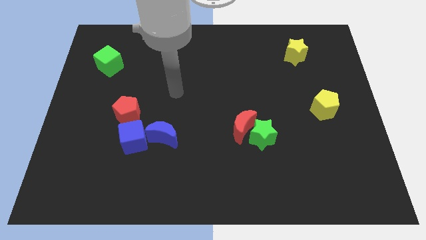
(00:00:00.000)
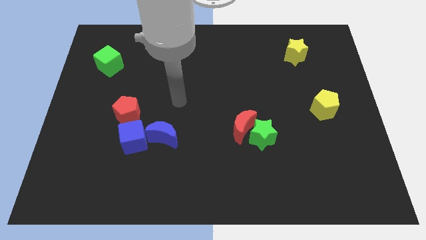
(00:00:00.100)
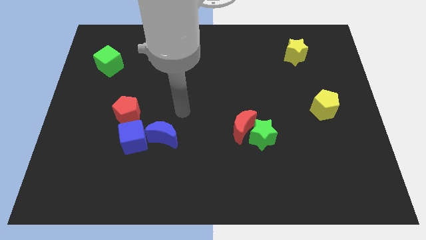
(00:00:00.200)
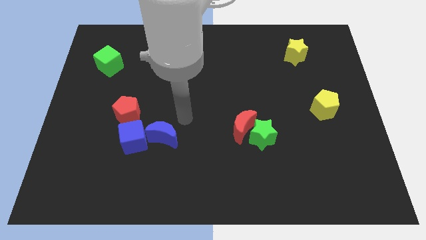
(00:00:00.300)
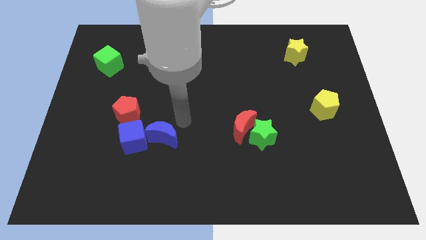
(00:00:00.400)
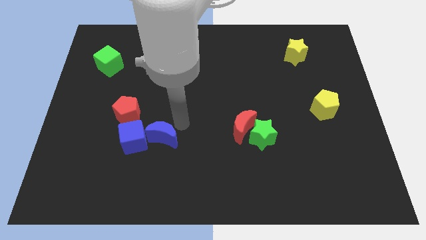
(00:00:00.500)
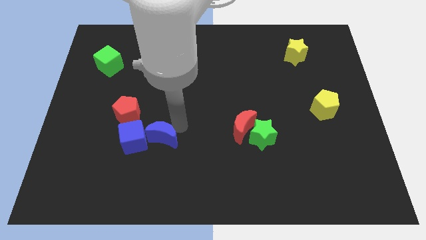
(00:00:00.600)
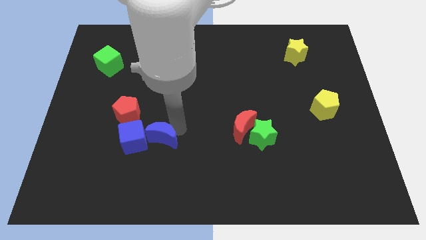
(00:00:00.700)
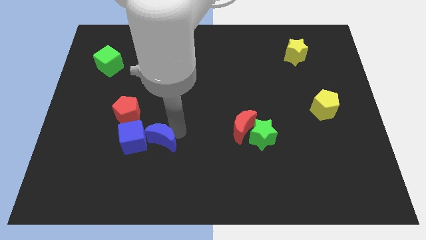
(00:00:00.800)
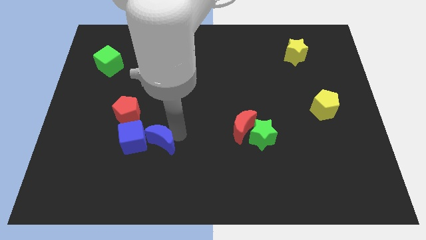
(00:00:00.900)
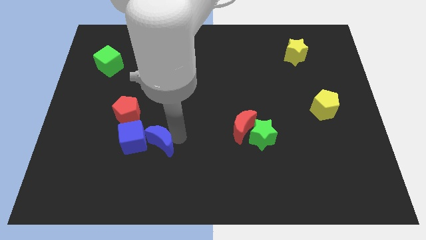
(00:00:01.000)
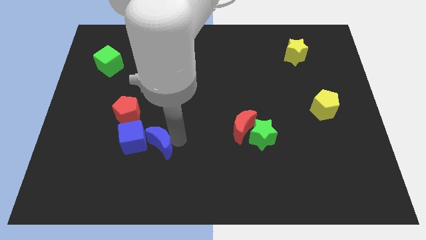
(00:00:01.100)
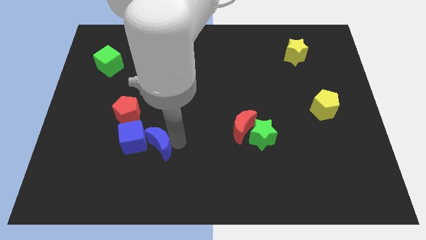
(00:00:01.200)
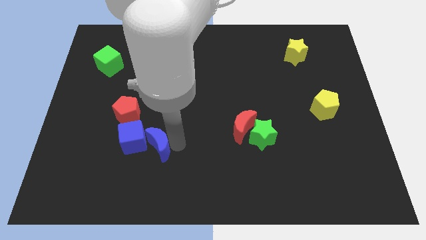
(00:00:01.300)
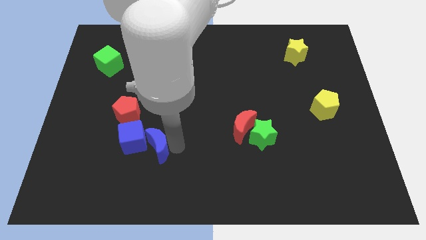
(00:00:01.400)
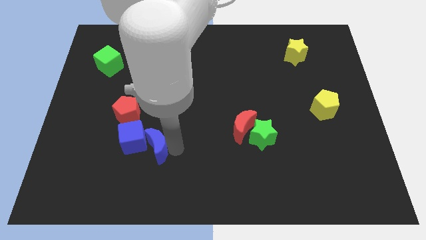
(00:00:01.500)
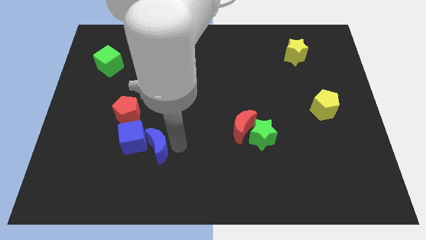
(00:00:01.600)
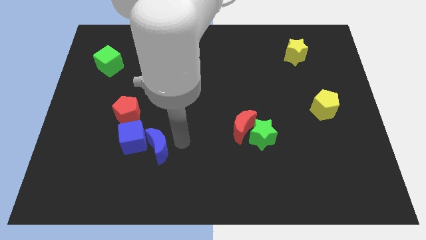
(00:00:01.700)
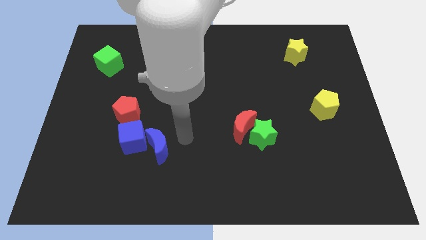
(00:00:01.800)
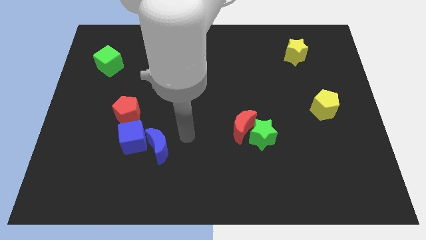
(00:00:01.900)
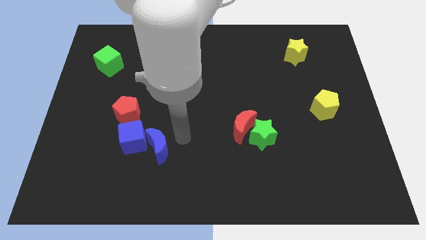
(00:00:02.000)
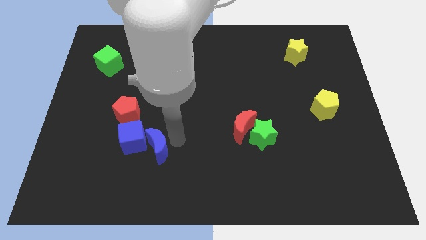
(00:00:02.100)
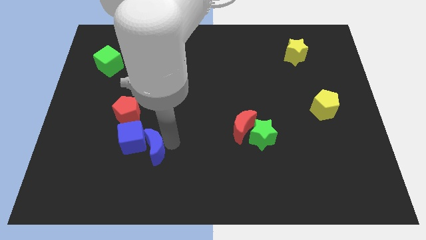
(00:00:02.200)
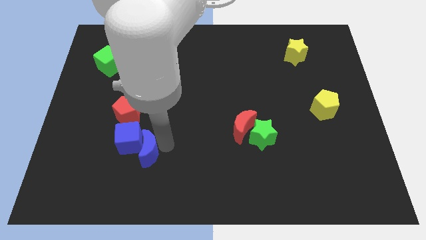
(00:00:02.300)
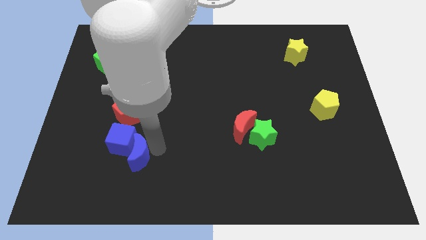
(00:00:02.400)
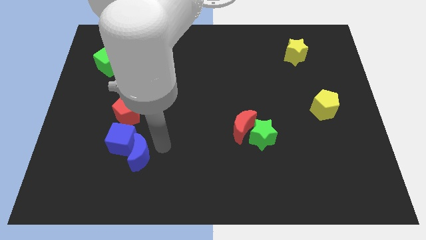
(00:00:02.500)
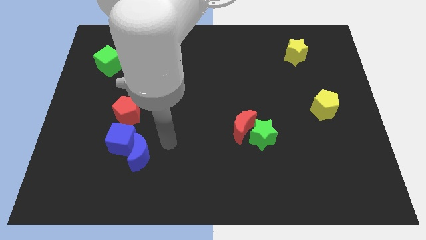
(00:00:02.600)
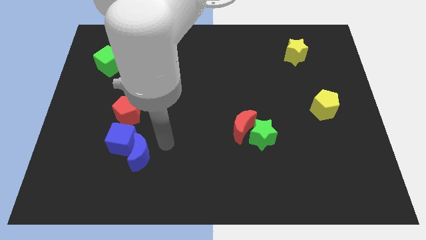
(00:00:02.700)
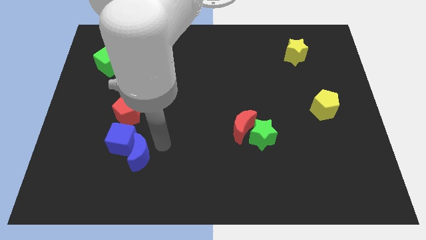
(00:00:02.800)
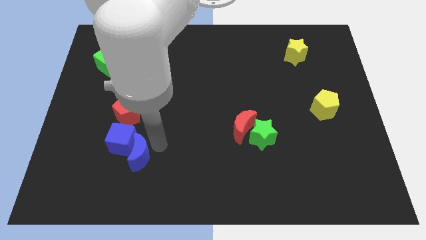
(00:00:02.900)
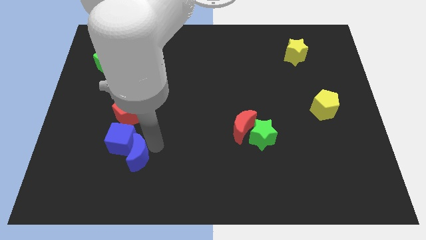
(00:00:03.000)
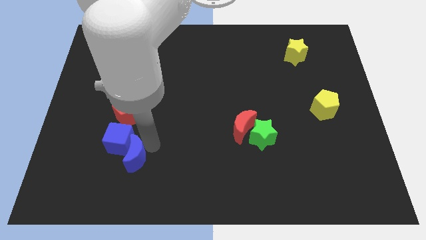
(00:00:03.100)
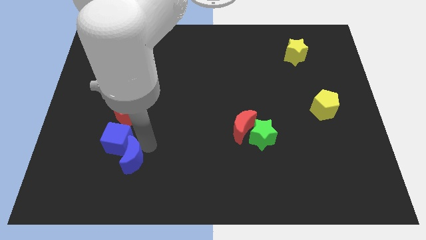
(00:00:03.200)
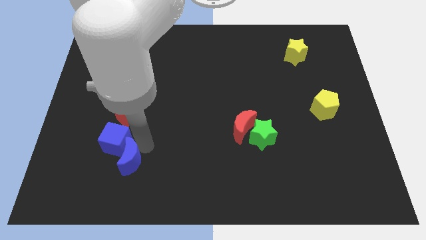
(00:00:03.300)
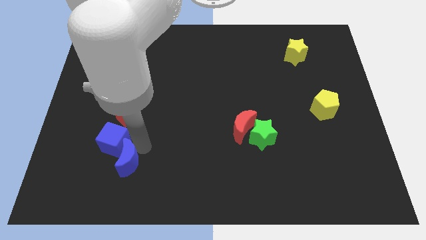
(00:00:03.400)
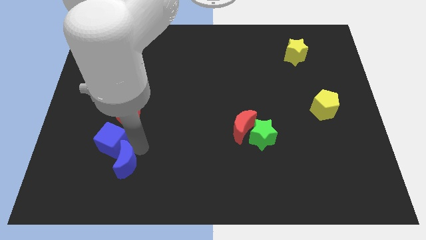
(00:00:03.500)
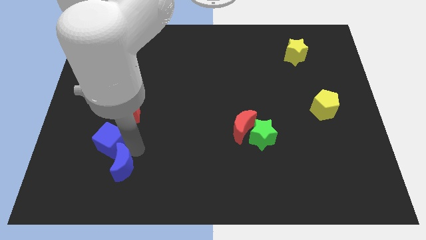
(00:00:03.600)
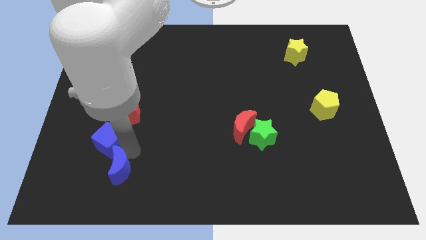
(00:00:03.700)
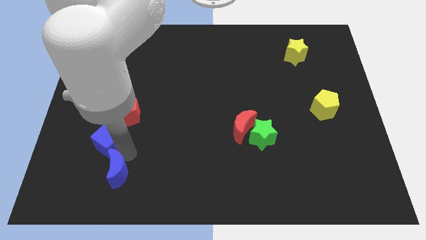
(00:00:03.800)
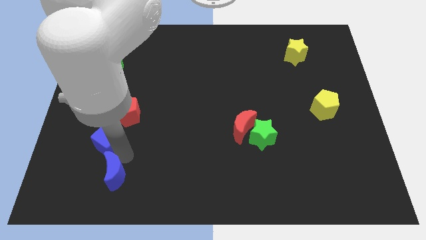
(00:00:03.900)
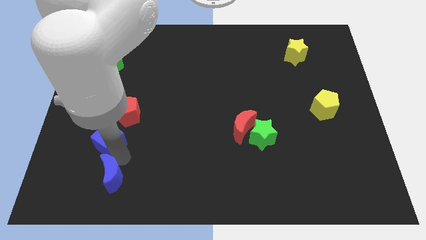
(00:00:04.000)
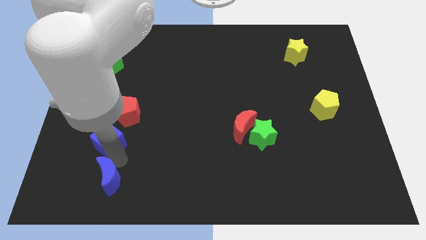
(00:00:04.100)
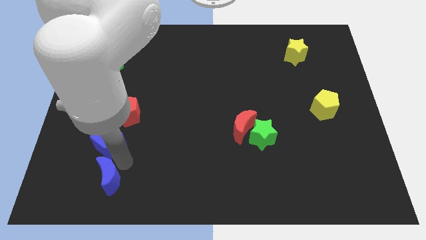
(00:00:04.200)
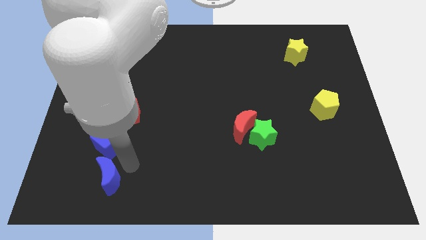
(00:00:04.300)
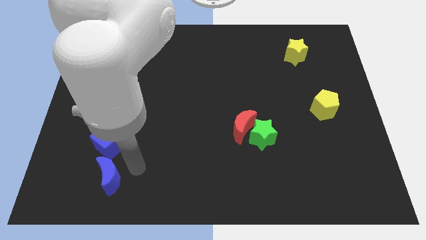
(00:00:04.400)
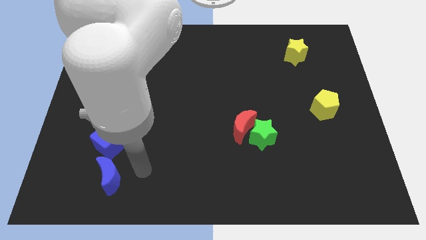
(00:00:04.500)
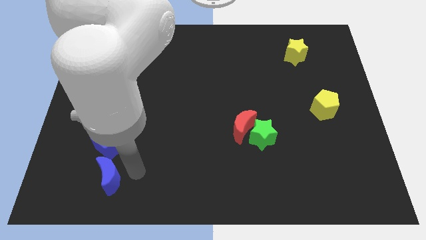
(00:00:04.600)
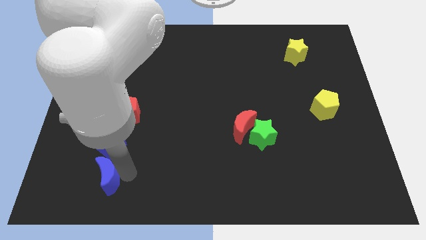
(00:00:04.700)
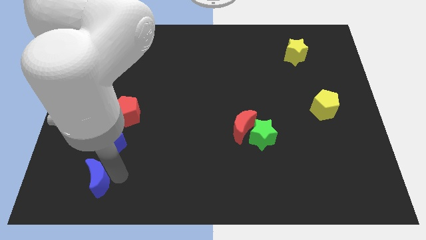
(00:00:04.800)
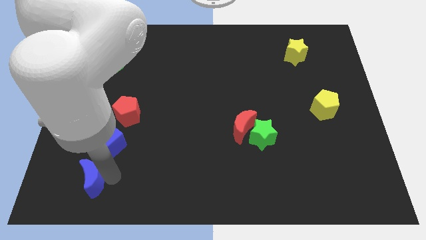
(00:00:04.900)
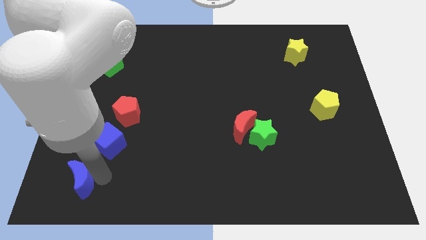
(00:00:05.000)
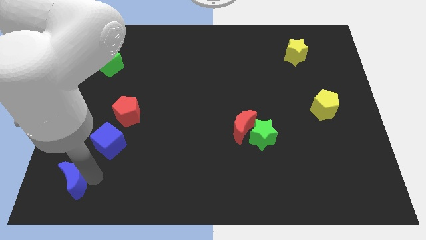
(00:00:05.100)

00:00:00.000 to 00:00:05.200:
put the blue moon to the bottom left corner

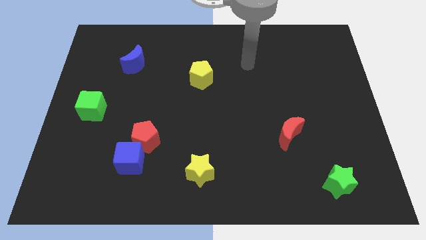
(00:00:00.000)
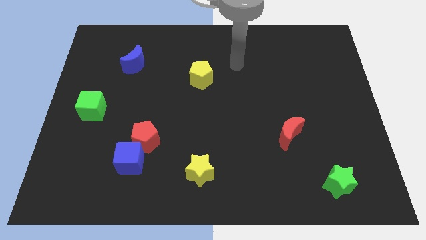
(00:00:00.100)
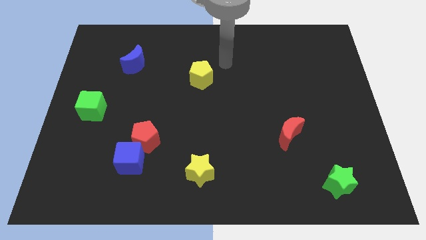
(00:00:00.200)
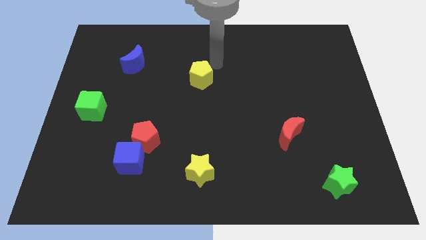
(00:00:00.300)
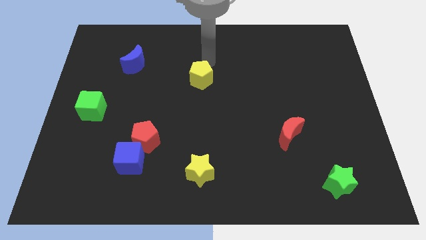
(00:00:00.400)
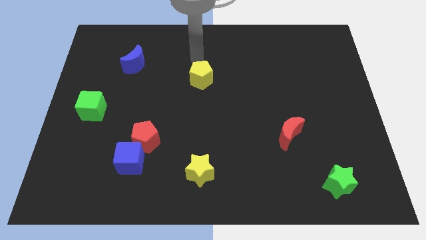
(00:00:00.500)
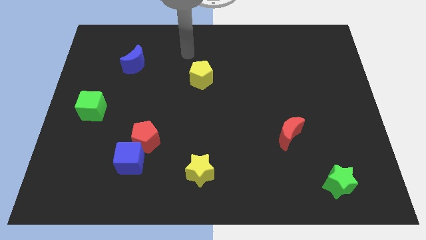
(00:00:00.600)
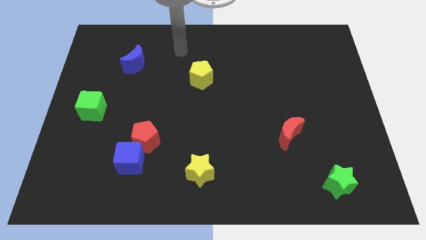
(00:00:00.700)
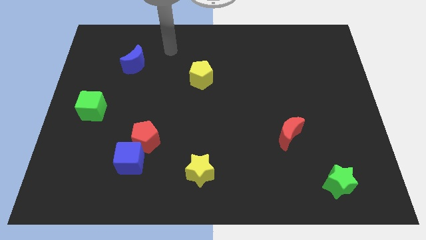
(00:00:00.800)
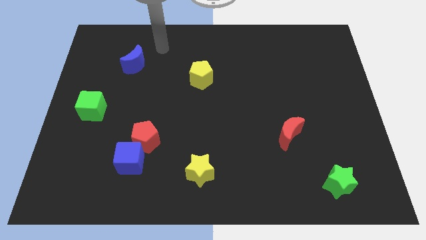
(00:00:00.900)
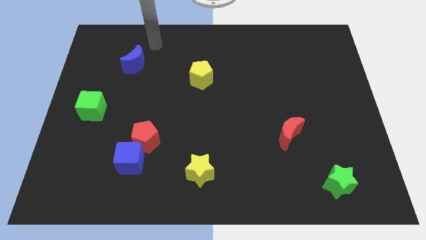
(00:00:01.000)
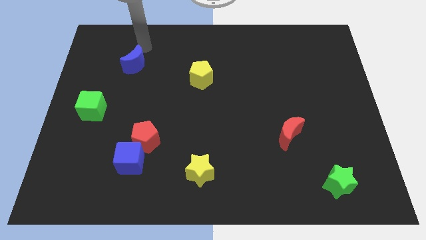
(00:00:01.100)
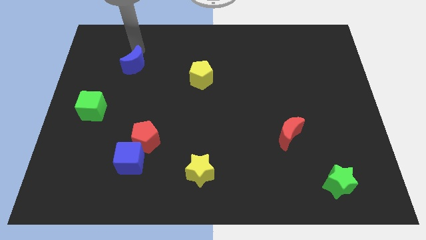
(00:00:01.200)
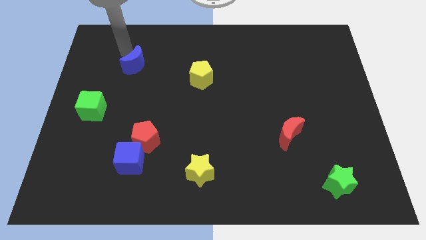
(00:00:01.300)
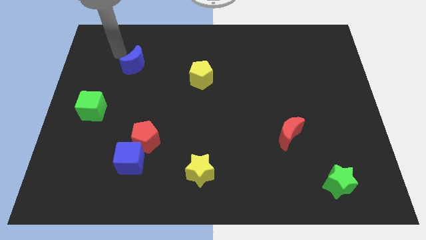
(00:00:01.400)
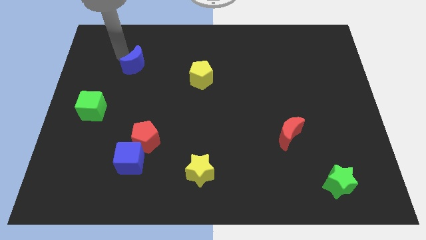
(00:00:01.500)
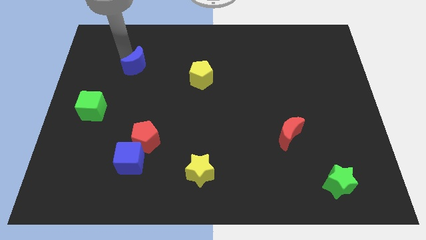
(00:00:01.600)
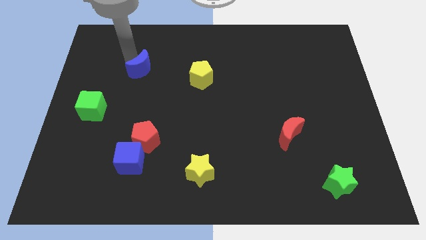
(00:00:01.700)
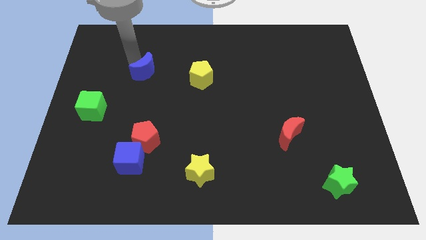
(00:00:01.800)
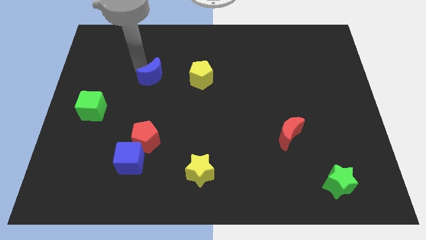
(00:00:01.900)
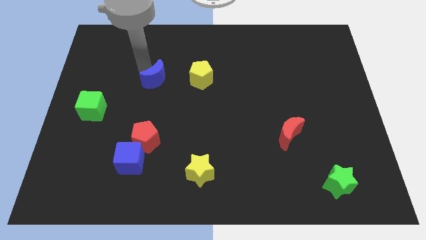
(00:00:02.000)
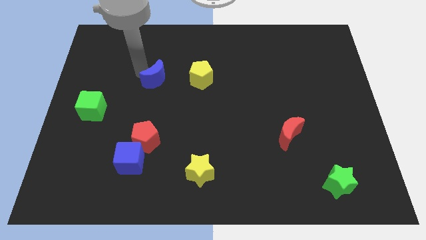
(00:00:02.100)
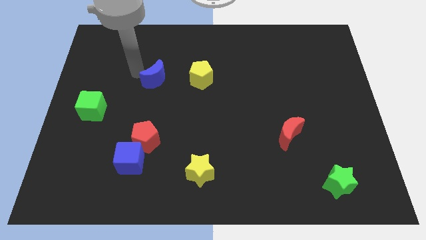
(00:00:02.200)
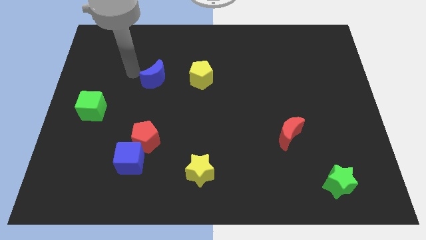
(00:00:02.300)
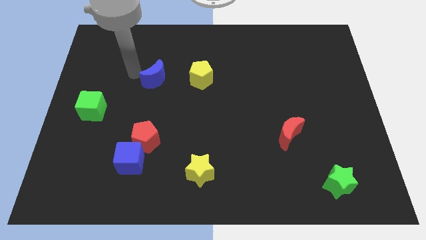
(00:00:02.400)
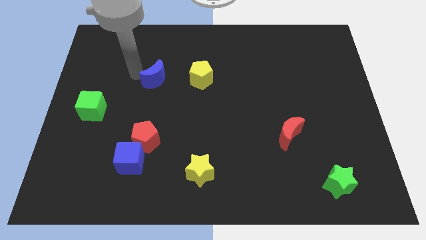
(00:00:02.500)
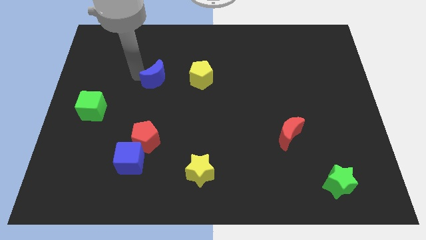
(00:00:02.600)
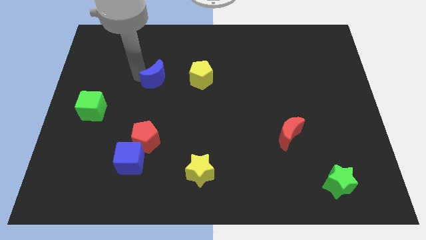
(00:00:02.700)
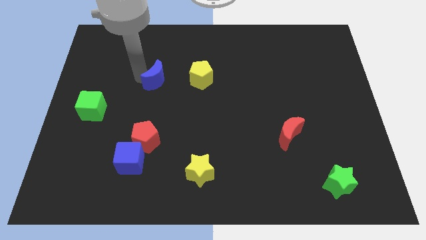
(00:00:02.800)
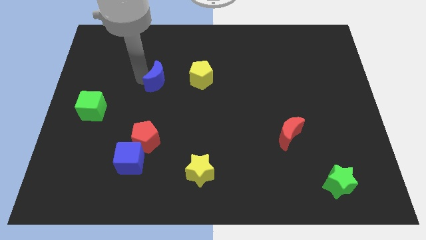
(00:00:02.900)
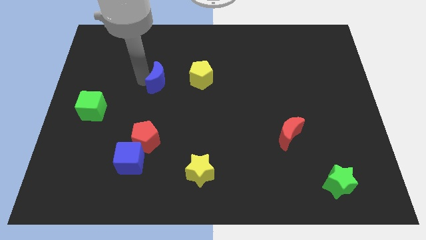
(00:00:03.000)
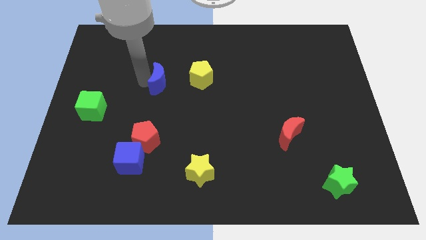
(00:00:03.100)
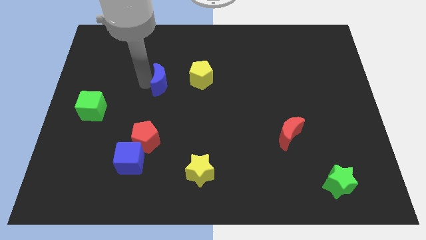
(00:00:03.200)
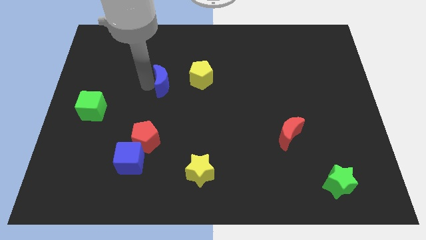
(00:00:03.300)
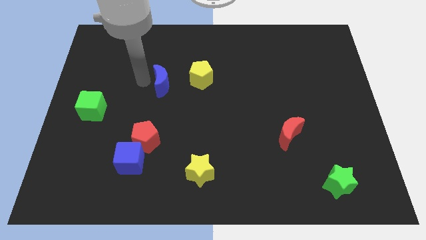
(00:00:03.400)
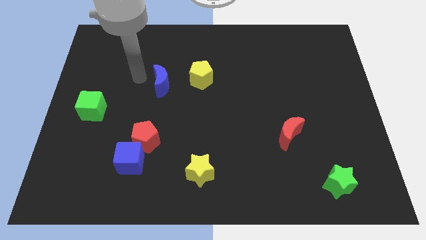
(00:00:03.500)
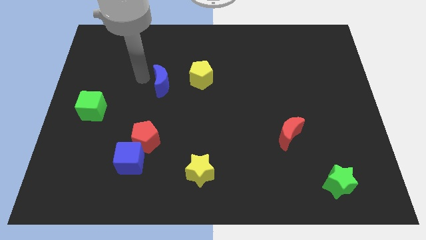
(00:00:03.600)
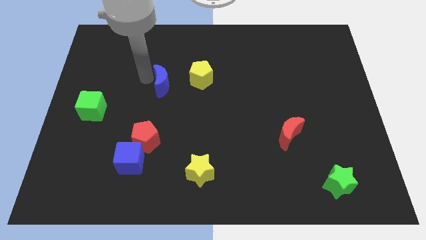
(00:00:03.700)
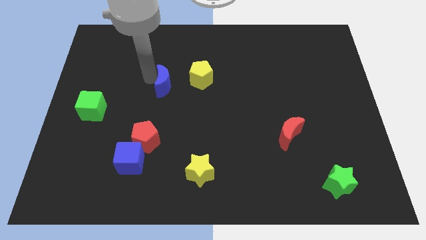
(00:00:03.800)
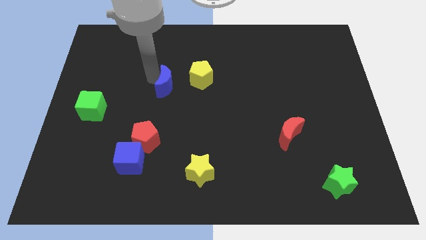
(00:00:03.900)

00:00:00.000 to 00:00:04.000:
move the blue moon to the middle
